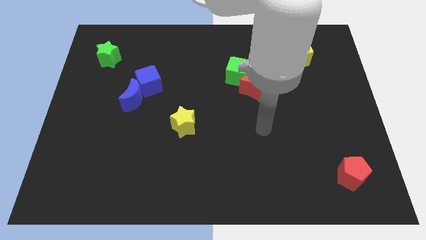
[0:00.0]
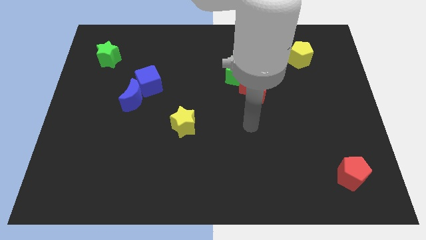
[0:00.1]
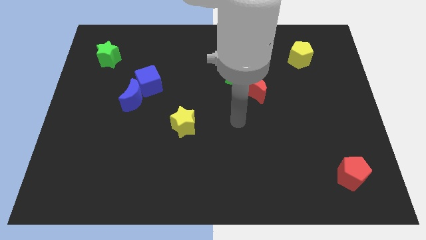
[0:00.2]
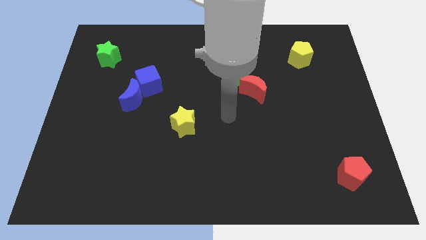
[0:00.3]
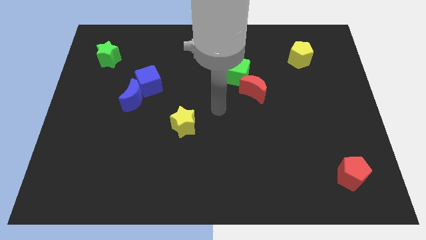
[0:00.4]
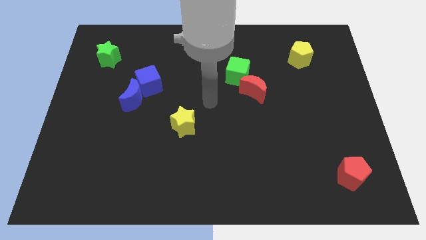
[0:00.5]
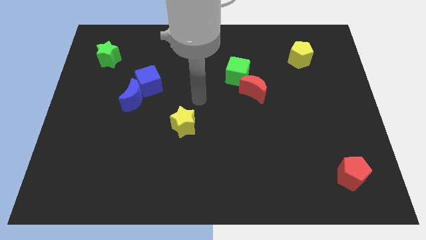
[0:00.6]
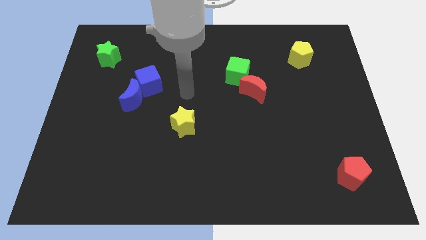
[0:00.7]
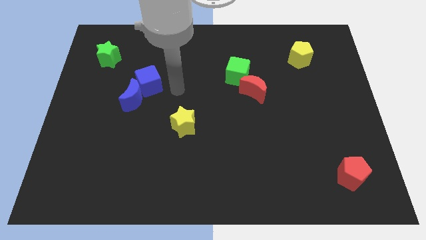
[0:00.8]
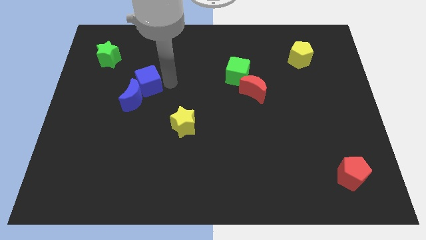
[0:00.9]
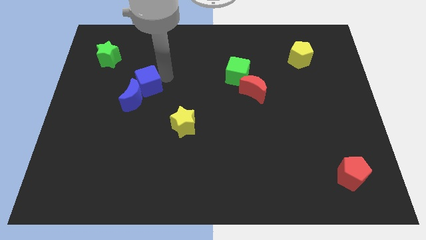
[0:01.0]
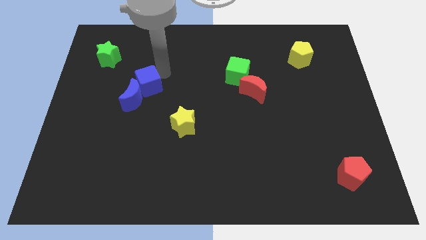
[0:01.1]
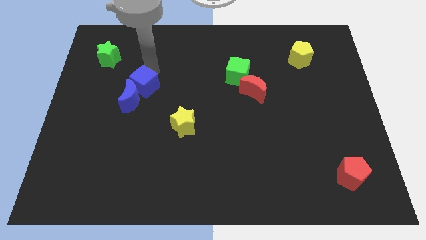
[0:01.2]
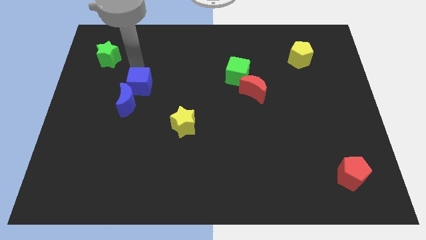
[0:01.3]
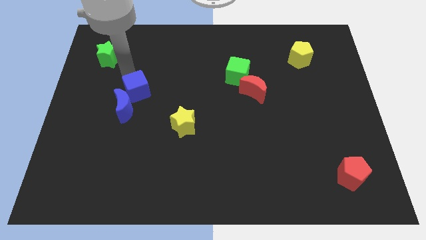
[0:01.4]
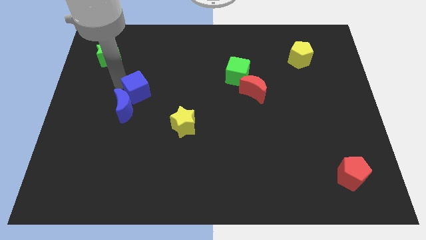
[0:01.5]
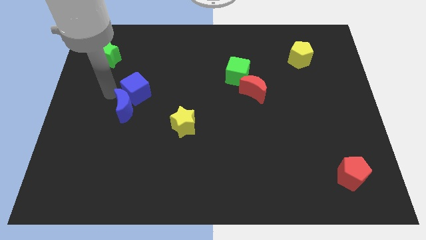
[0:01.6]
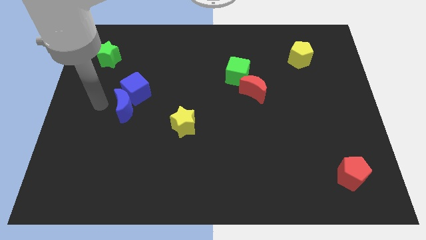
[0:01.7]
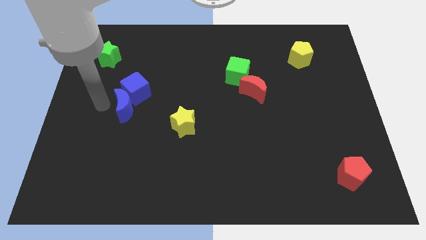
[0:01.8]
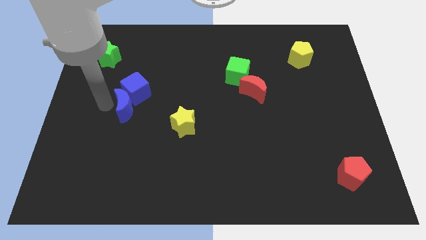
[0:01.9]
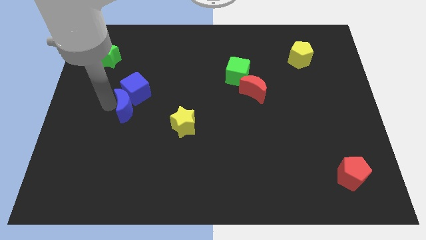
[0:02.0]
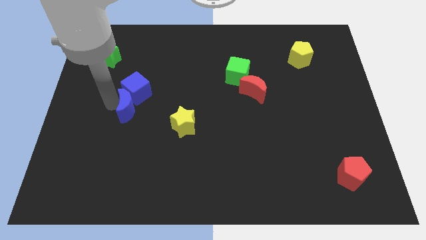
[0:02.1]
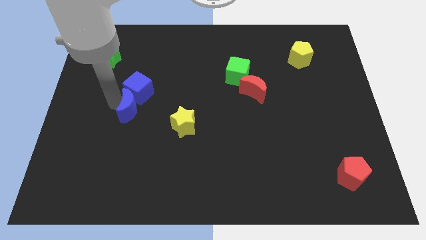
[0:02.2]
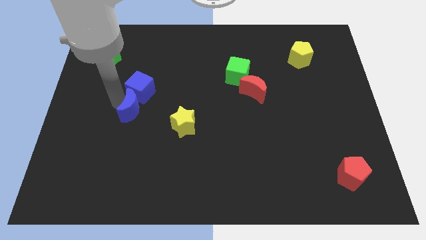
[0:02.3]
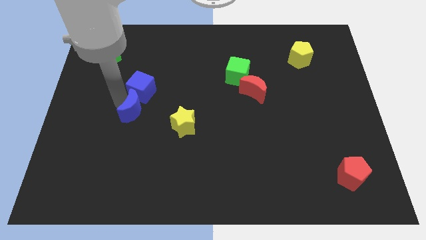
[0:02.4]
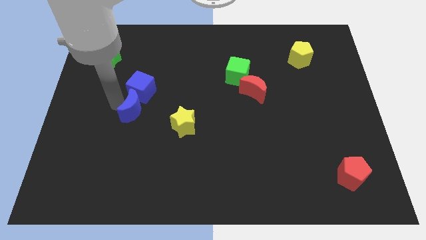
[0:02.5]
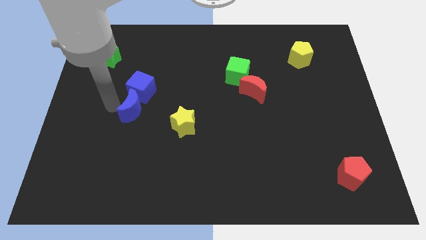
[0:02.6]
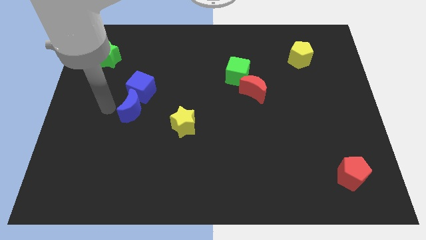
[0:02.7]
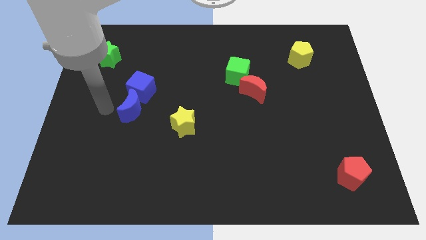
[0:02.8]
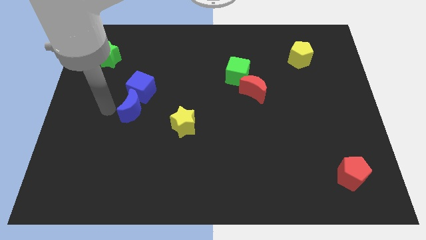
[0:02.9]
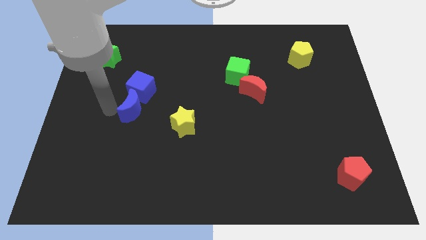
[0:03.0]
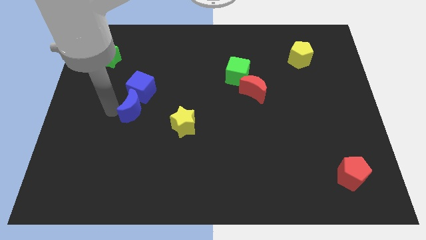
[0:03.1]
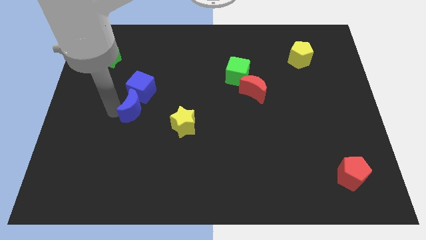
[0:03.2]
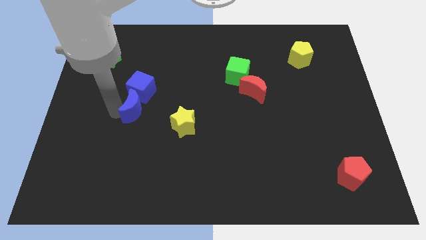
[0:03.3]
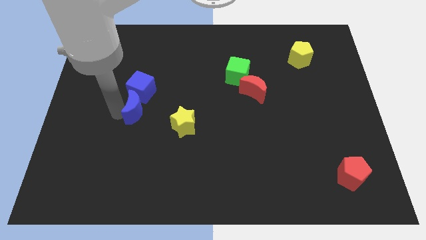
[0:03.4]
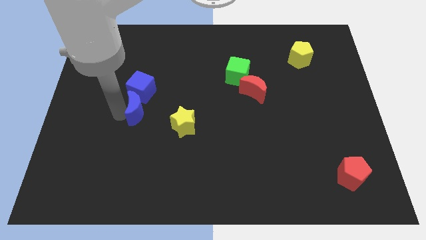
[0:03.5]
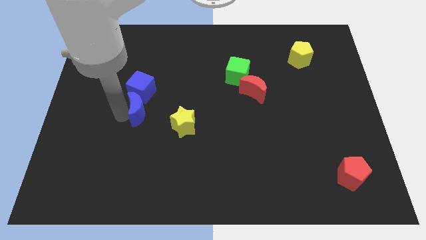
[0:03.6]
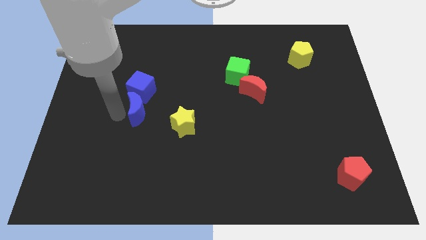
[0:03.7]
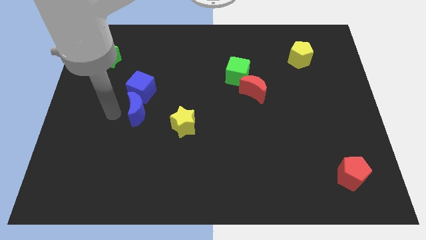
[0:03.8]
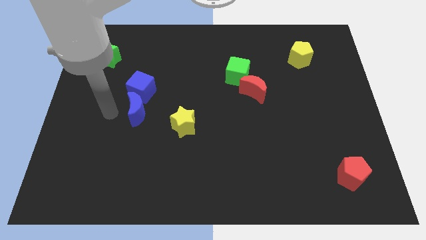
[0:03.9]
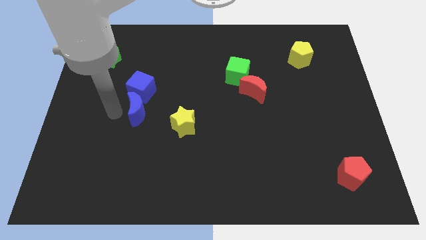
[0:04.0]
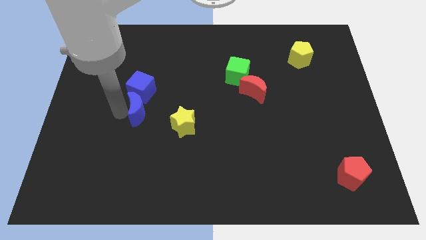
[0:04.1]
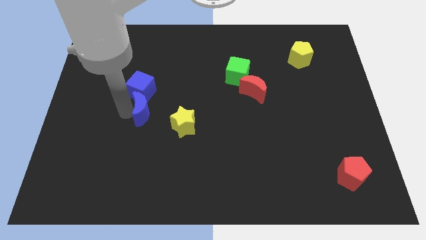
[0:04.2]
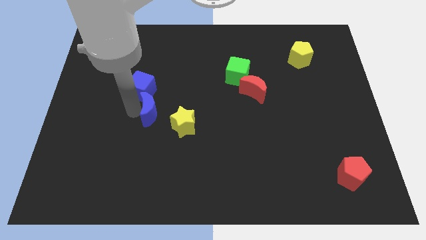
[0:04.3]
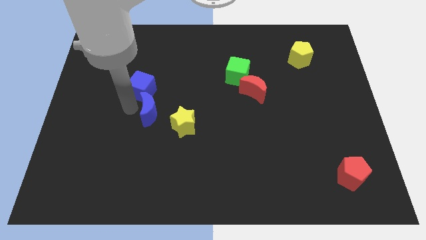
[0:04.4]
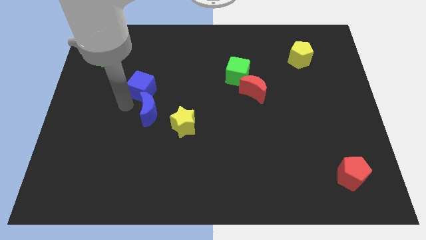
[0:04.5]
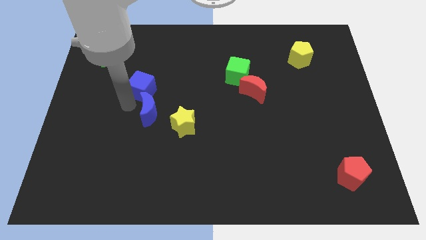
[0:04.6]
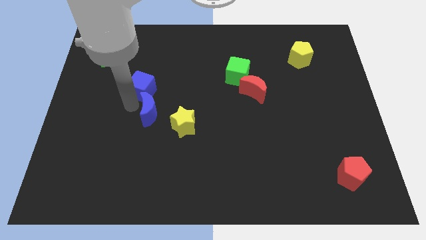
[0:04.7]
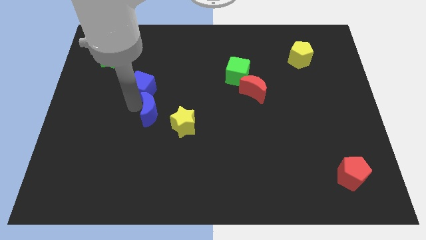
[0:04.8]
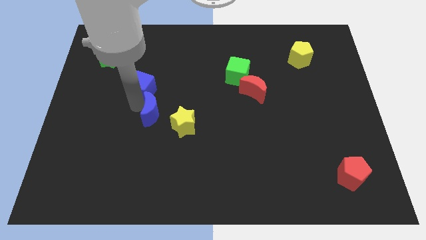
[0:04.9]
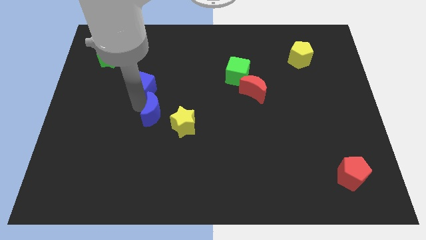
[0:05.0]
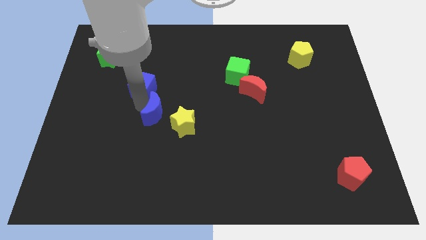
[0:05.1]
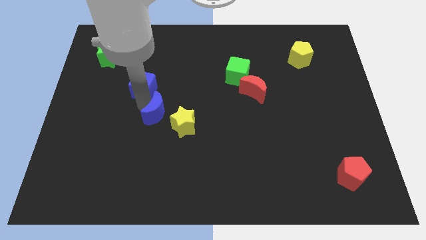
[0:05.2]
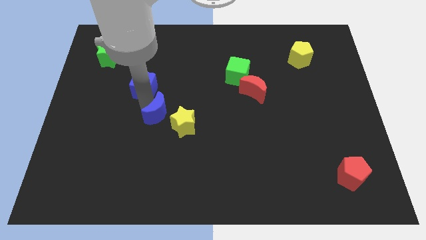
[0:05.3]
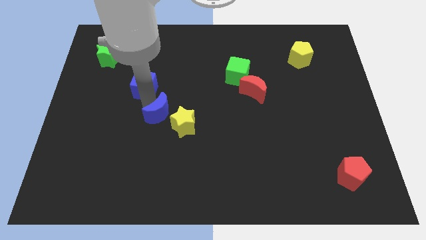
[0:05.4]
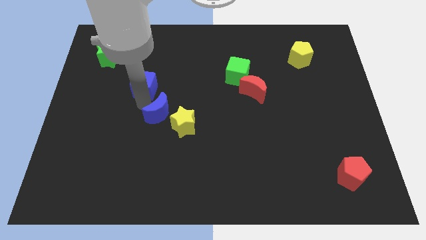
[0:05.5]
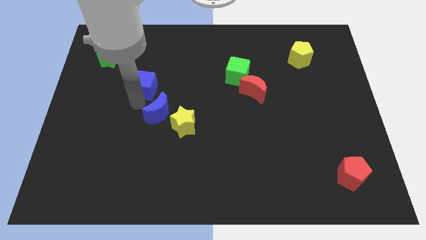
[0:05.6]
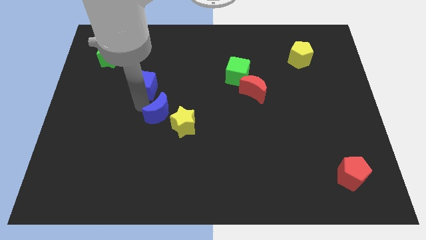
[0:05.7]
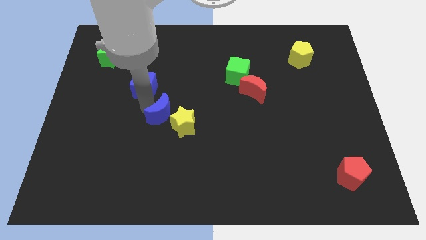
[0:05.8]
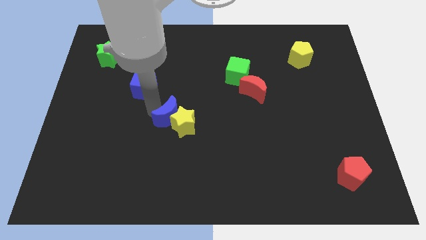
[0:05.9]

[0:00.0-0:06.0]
move the blue moon close to the yellow star

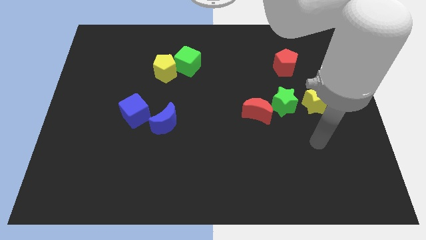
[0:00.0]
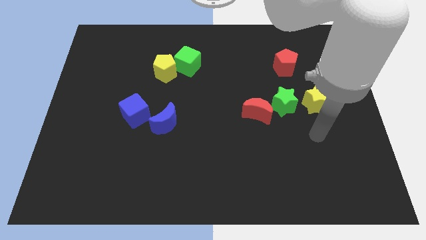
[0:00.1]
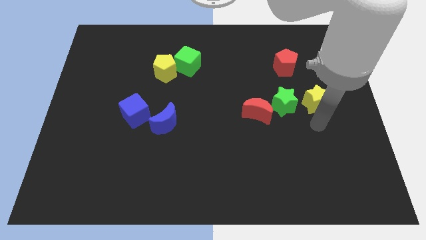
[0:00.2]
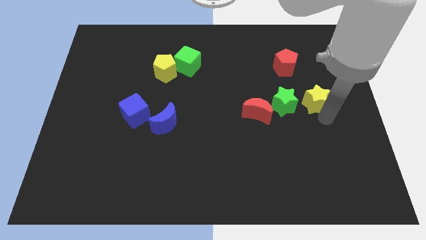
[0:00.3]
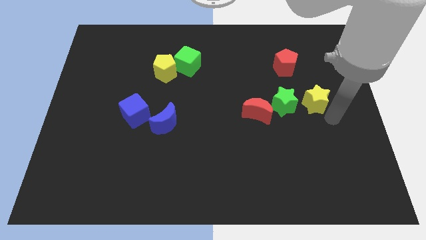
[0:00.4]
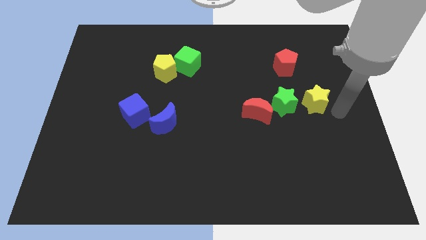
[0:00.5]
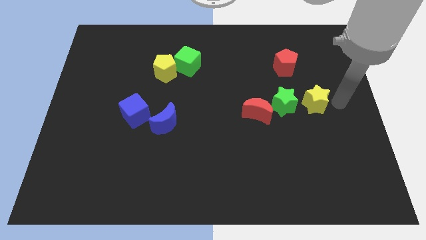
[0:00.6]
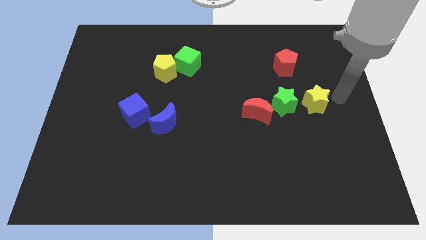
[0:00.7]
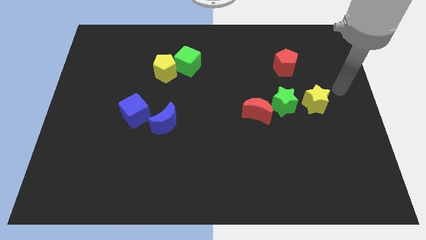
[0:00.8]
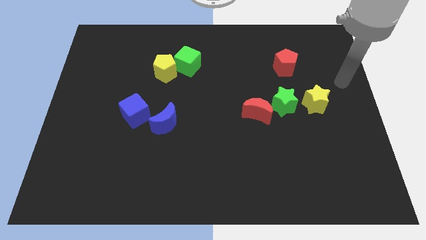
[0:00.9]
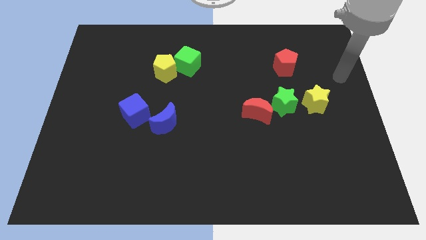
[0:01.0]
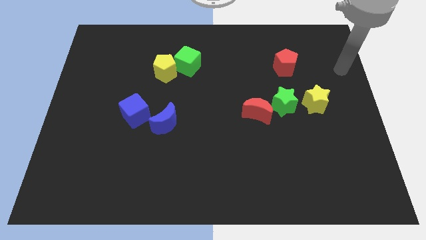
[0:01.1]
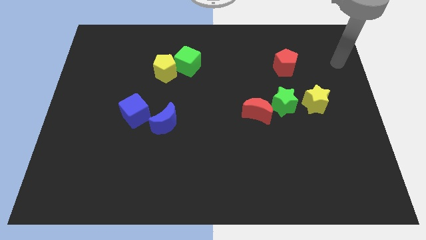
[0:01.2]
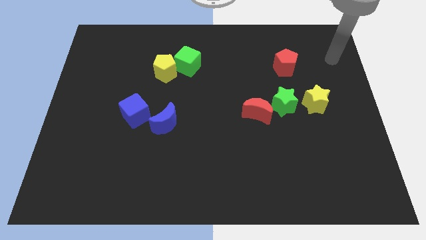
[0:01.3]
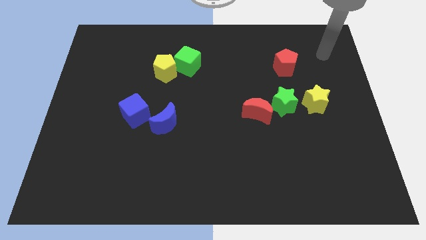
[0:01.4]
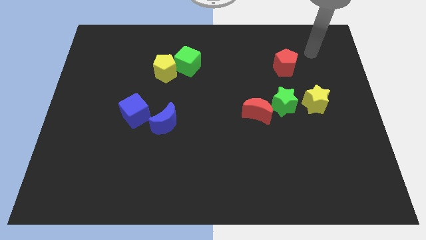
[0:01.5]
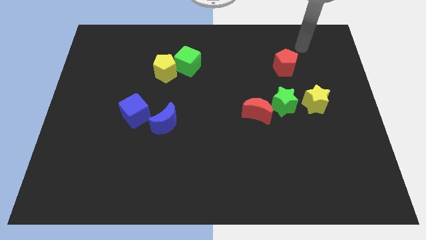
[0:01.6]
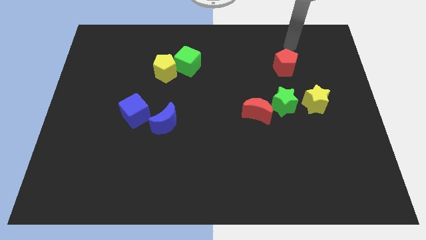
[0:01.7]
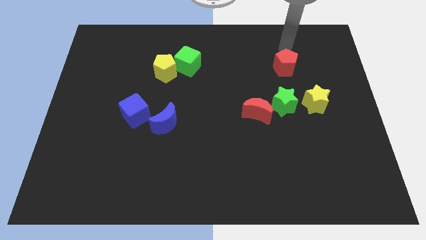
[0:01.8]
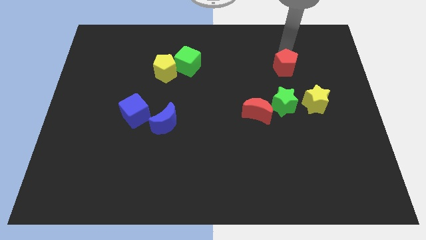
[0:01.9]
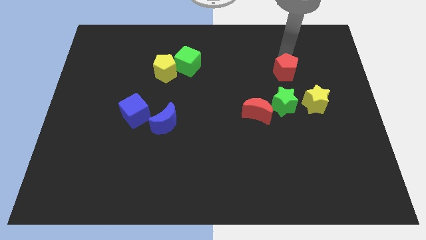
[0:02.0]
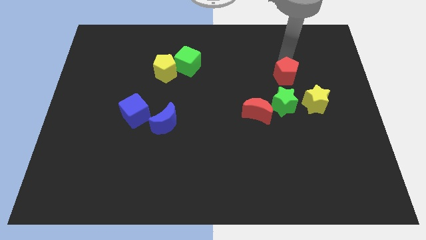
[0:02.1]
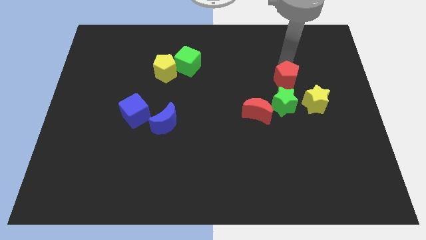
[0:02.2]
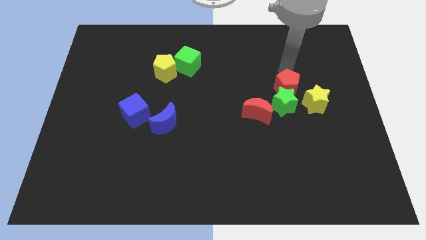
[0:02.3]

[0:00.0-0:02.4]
slide the red pentagon towards the green star
